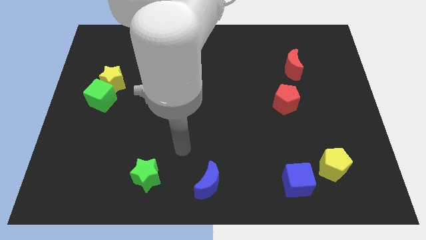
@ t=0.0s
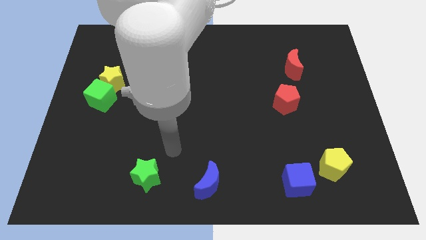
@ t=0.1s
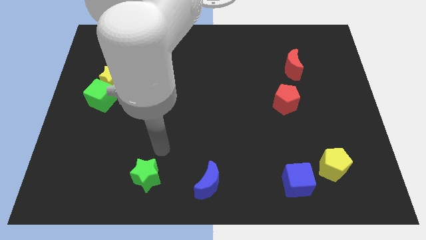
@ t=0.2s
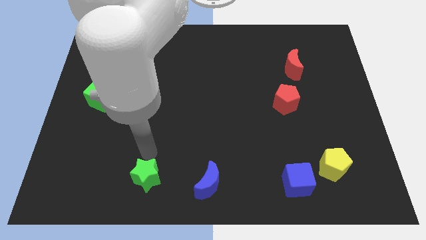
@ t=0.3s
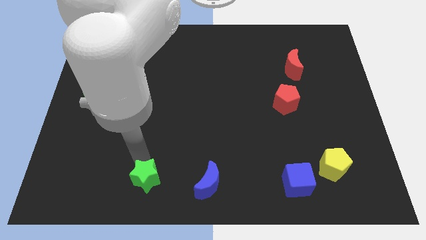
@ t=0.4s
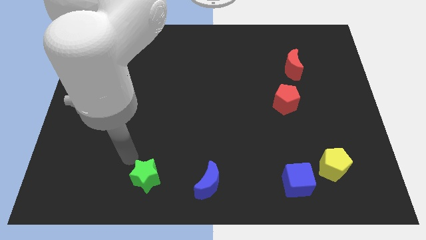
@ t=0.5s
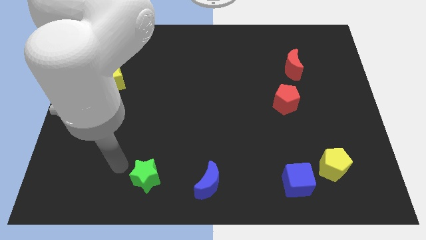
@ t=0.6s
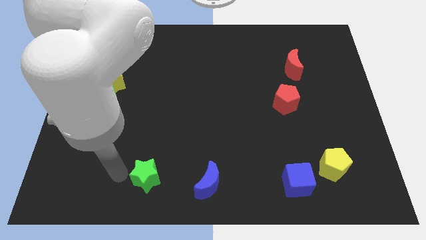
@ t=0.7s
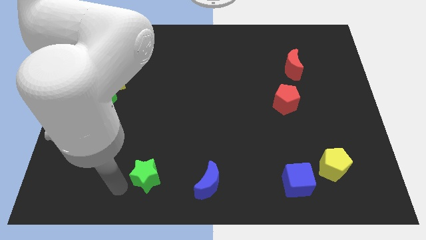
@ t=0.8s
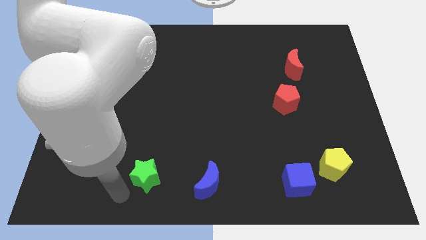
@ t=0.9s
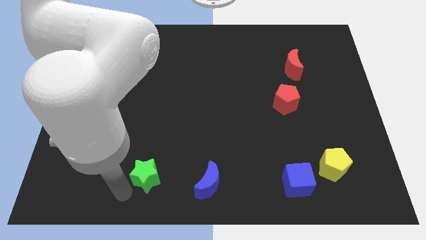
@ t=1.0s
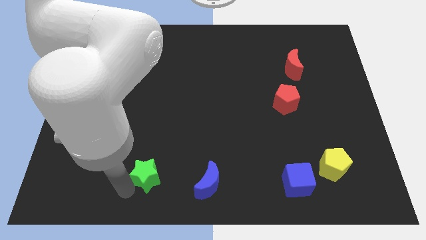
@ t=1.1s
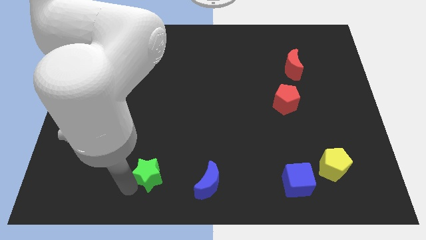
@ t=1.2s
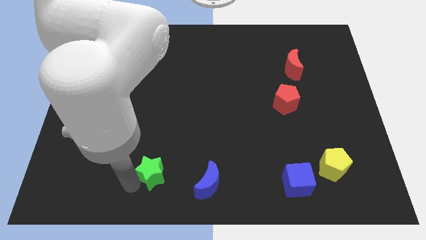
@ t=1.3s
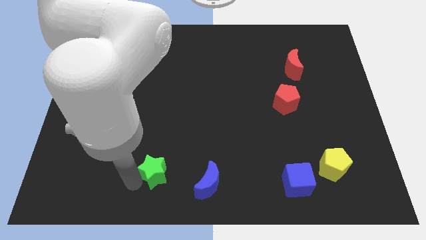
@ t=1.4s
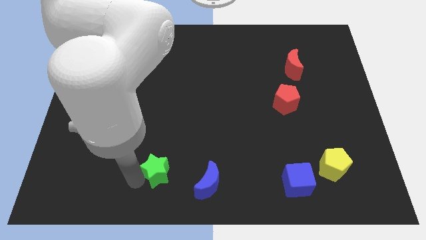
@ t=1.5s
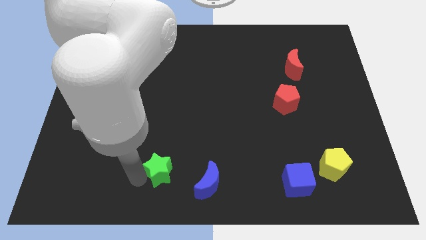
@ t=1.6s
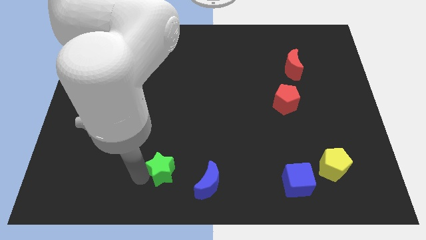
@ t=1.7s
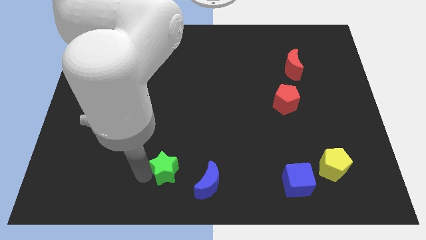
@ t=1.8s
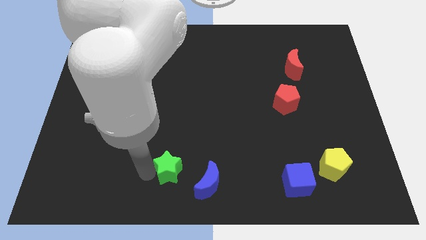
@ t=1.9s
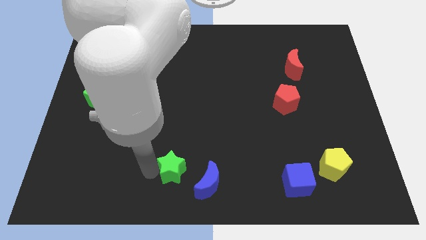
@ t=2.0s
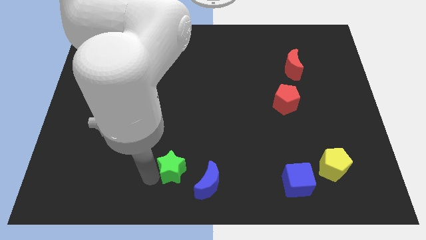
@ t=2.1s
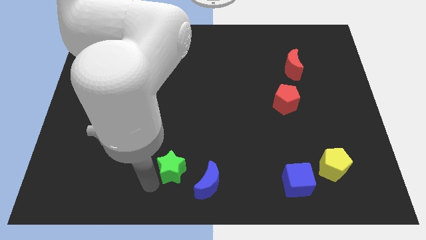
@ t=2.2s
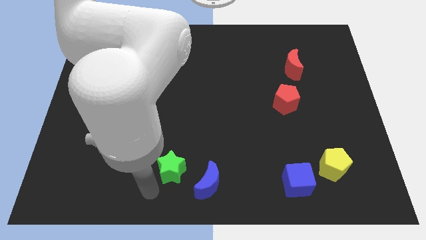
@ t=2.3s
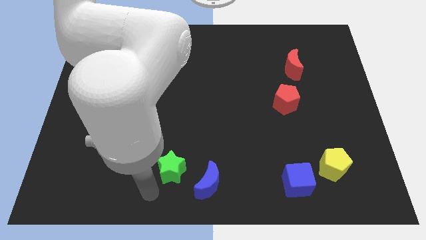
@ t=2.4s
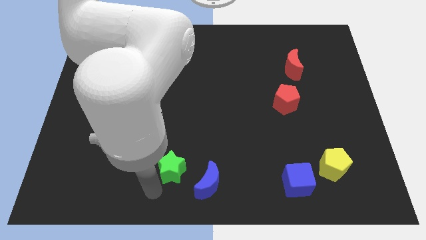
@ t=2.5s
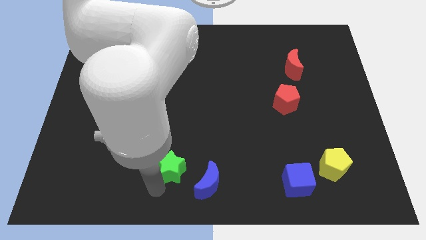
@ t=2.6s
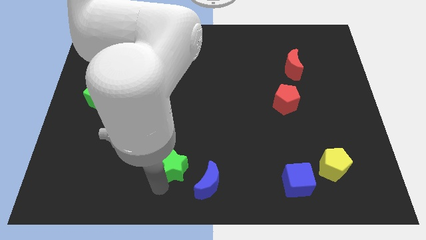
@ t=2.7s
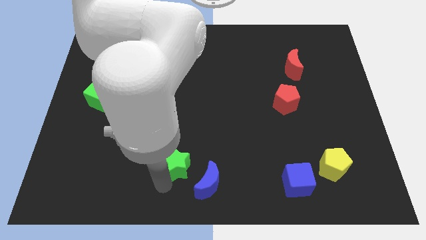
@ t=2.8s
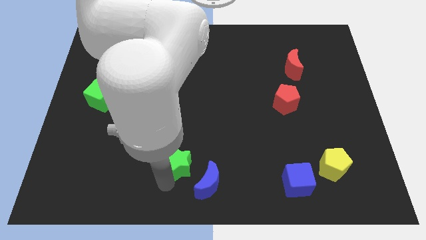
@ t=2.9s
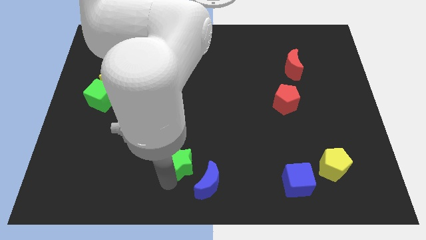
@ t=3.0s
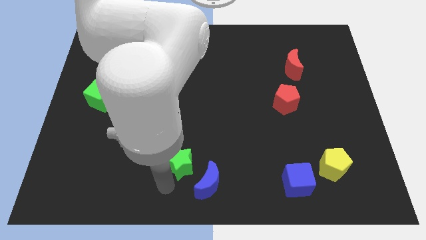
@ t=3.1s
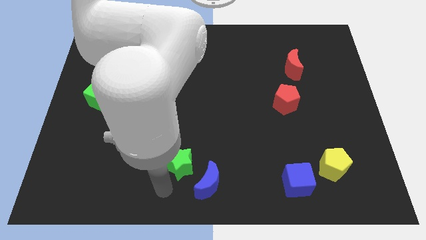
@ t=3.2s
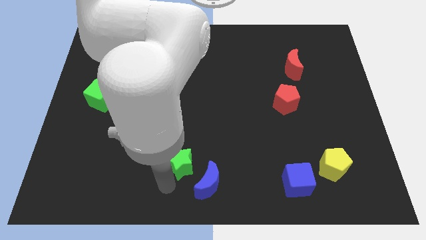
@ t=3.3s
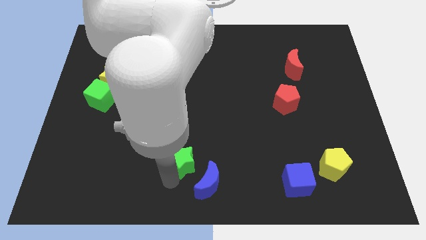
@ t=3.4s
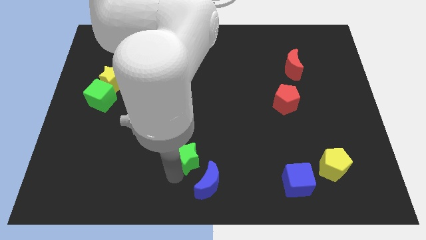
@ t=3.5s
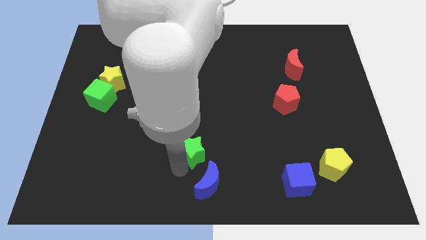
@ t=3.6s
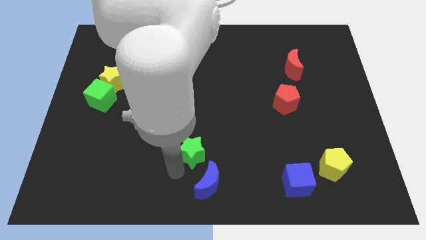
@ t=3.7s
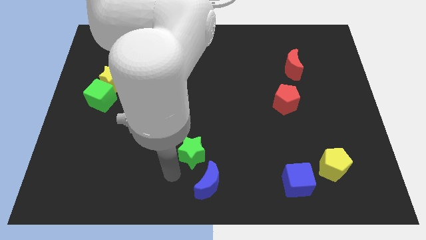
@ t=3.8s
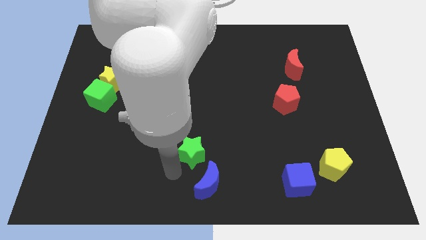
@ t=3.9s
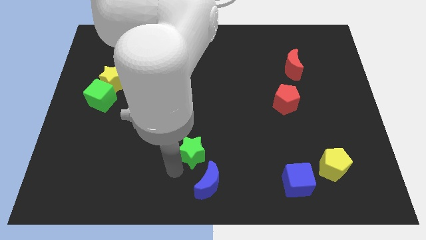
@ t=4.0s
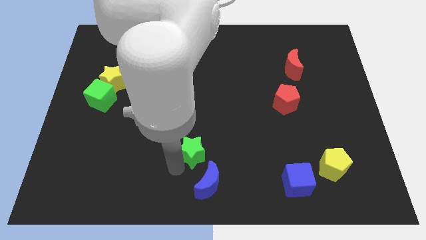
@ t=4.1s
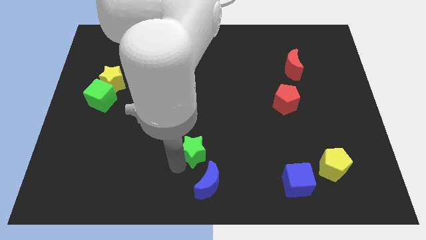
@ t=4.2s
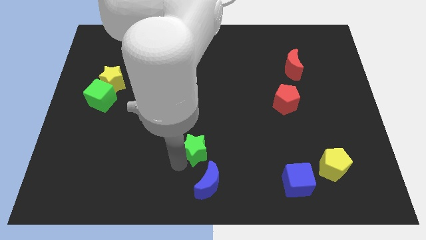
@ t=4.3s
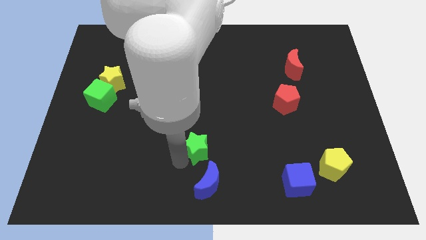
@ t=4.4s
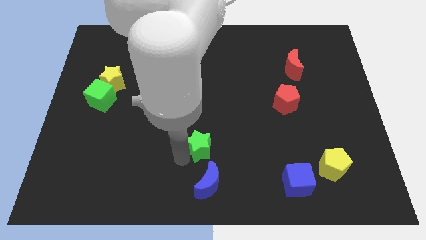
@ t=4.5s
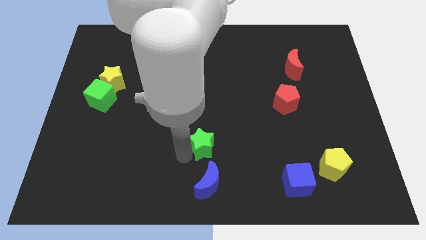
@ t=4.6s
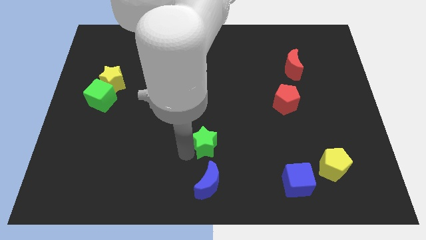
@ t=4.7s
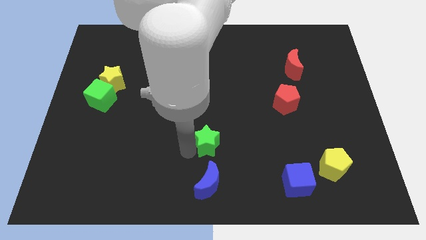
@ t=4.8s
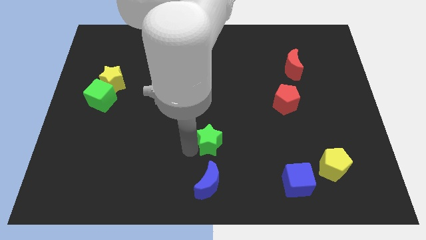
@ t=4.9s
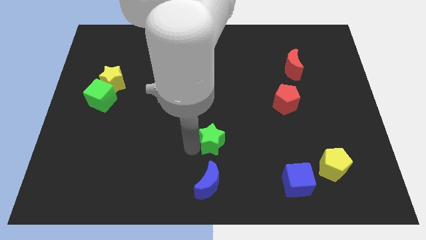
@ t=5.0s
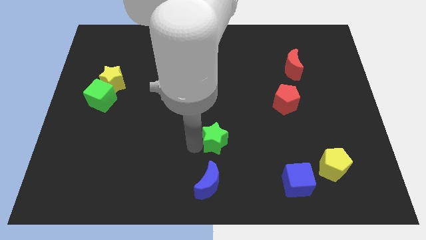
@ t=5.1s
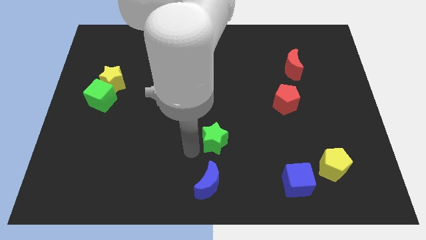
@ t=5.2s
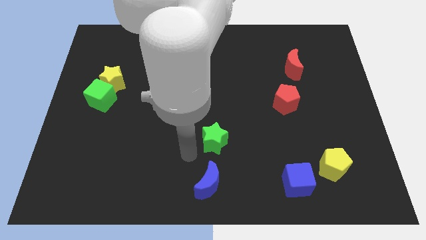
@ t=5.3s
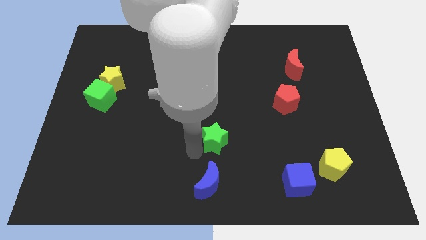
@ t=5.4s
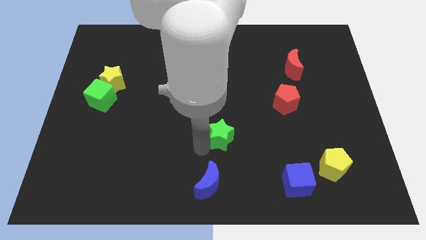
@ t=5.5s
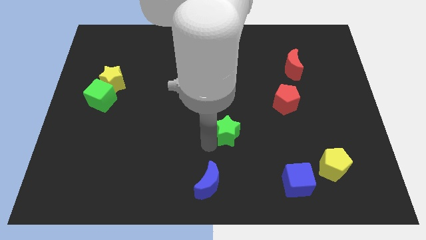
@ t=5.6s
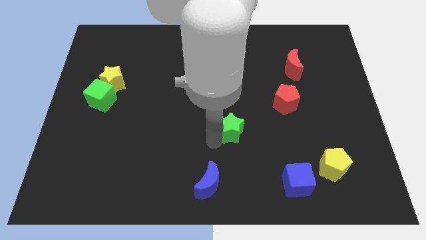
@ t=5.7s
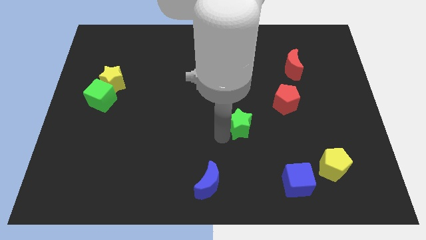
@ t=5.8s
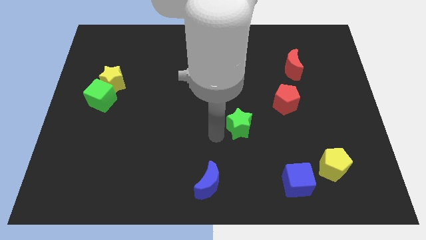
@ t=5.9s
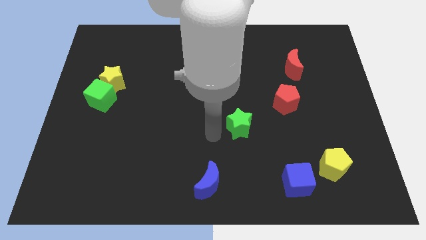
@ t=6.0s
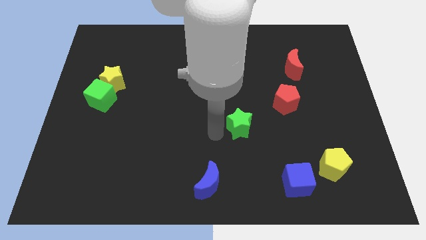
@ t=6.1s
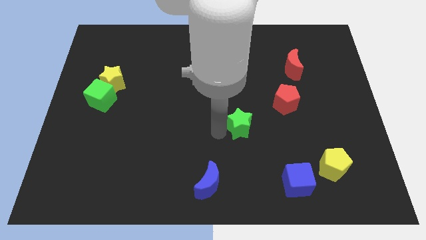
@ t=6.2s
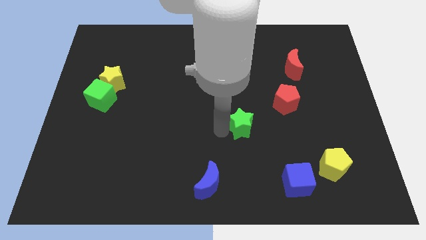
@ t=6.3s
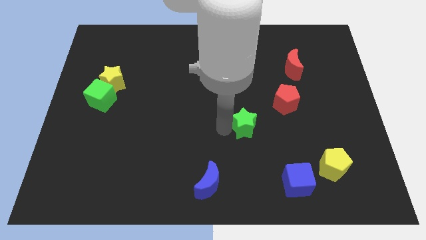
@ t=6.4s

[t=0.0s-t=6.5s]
move the green star diagonally down and to the left of the red pentagon

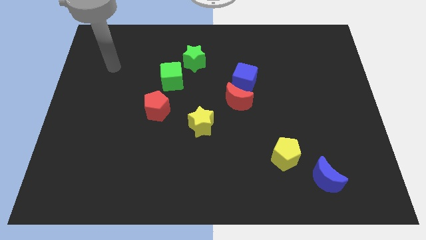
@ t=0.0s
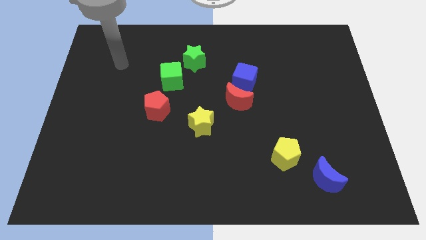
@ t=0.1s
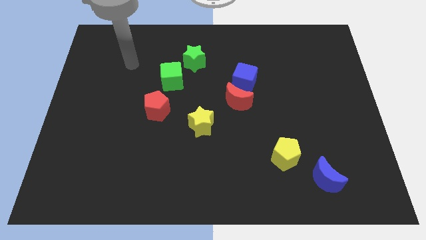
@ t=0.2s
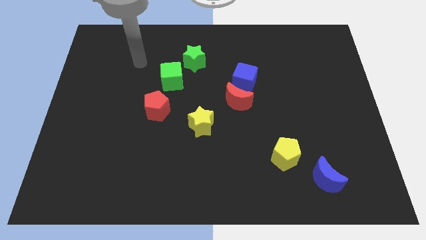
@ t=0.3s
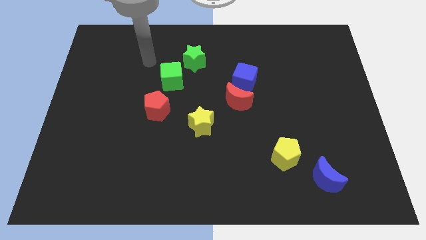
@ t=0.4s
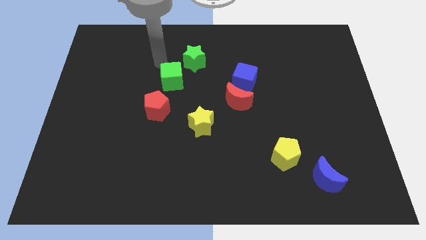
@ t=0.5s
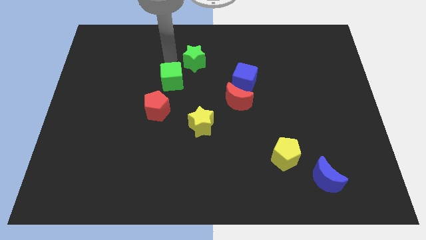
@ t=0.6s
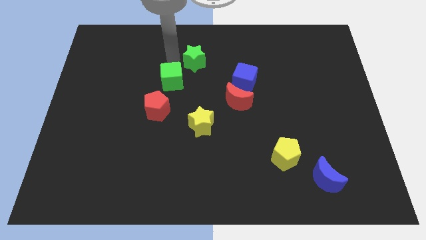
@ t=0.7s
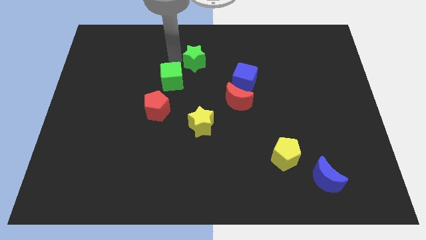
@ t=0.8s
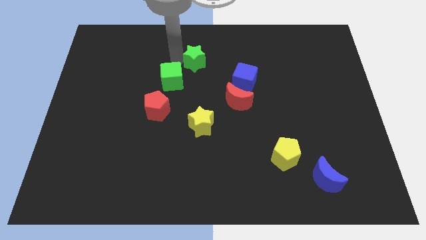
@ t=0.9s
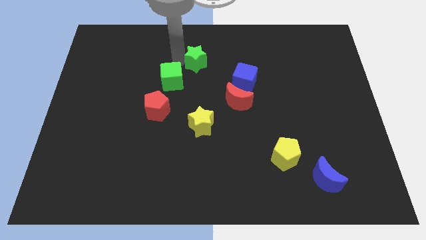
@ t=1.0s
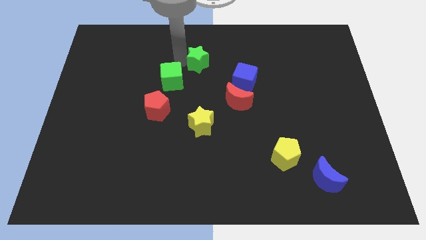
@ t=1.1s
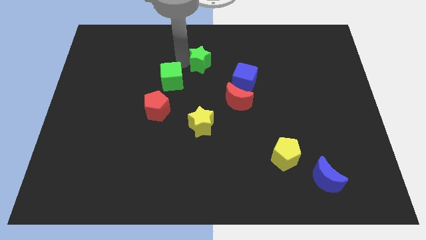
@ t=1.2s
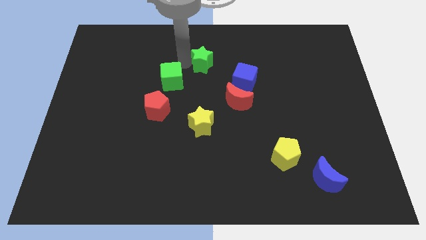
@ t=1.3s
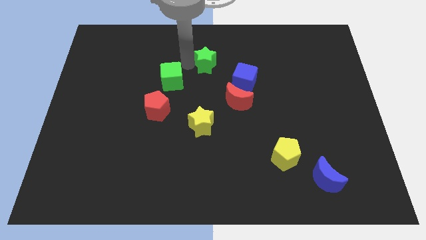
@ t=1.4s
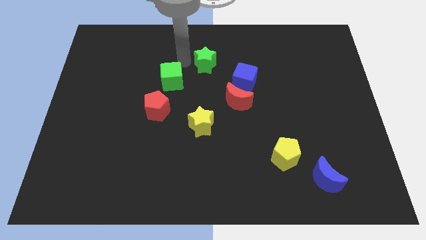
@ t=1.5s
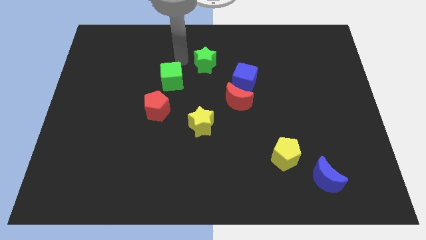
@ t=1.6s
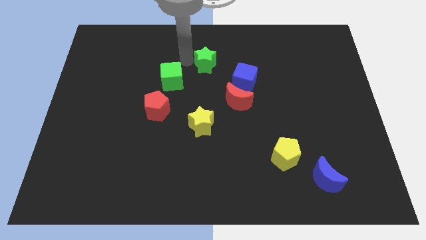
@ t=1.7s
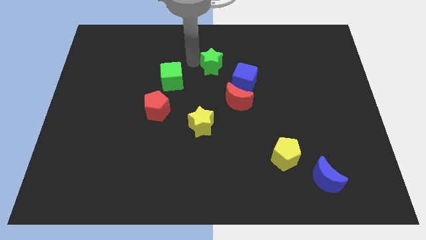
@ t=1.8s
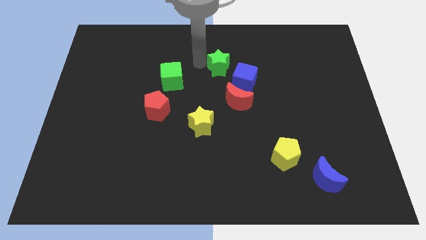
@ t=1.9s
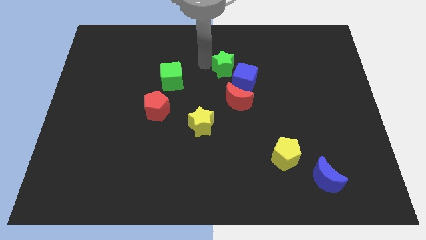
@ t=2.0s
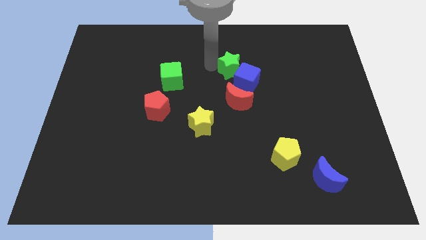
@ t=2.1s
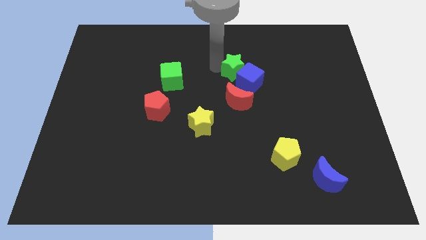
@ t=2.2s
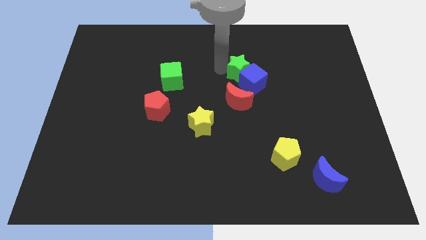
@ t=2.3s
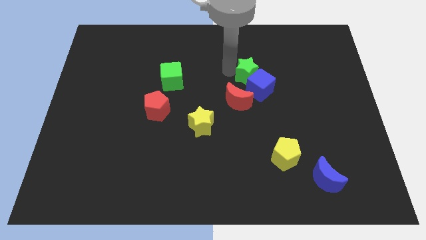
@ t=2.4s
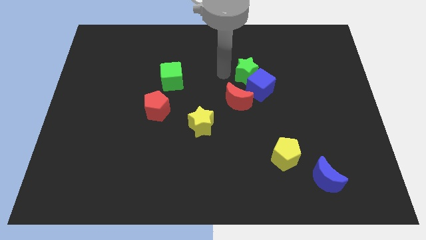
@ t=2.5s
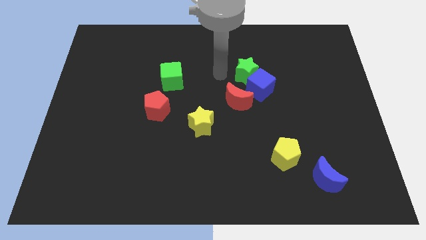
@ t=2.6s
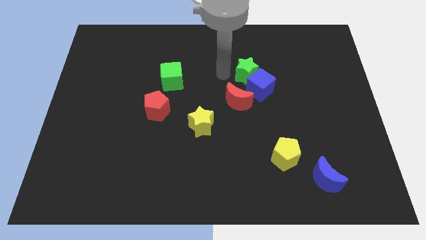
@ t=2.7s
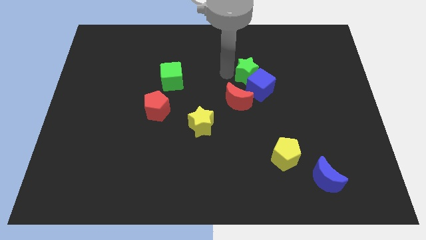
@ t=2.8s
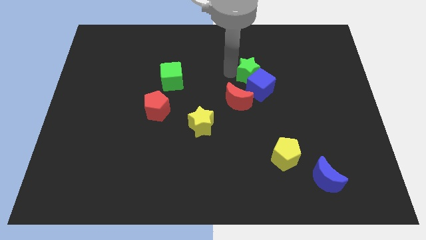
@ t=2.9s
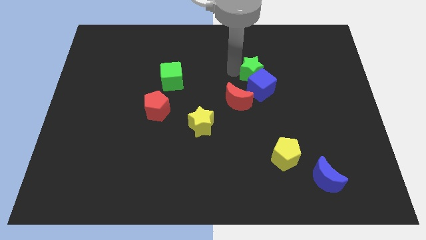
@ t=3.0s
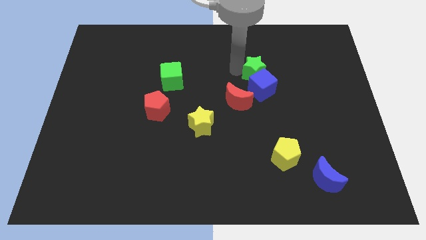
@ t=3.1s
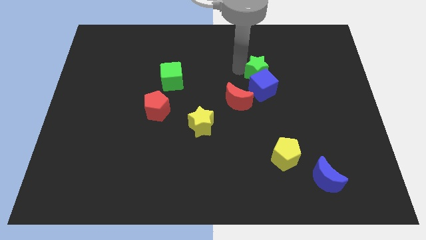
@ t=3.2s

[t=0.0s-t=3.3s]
slide the green star to the top right of the blue cube
